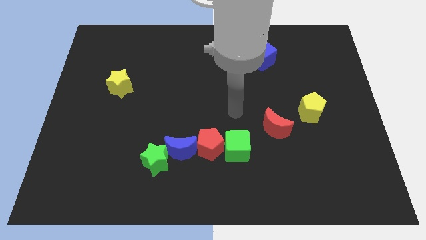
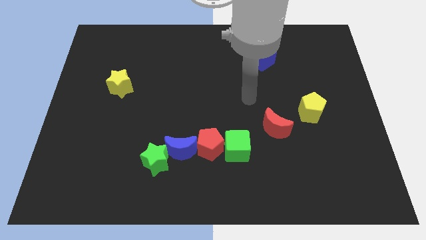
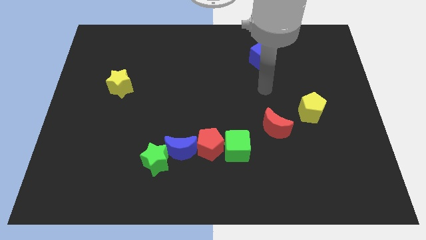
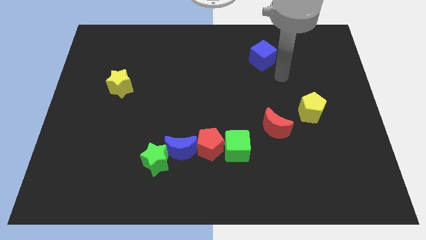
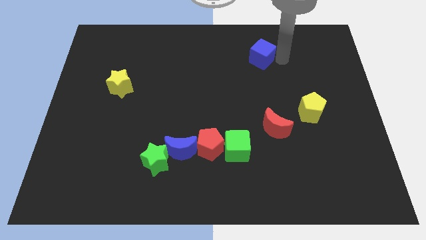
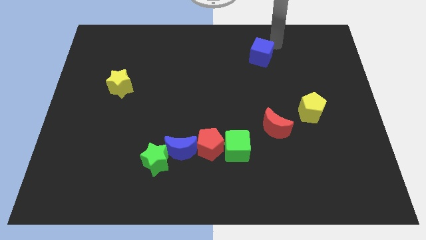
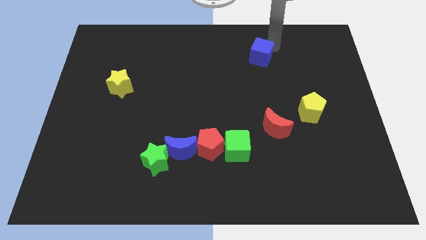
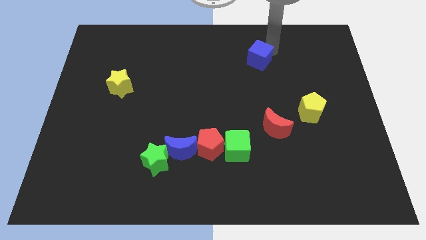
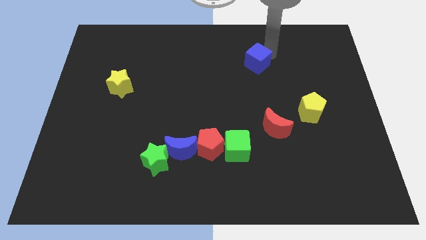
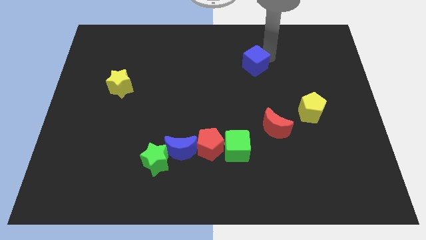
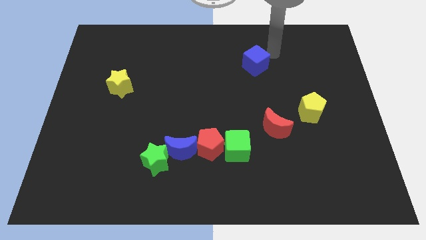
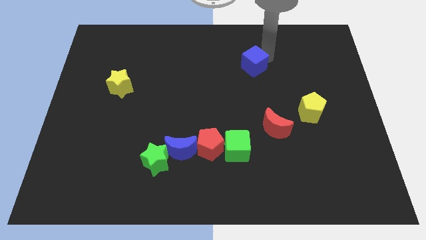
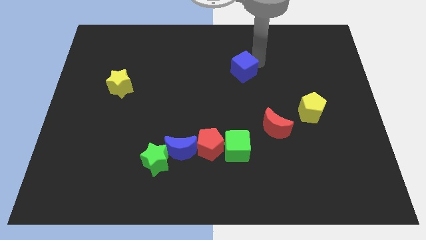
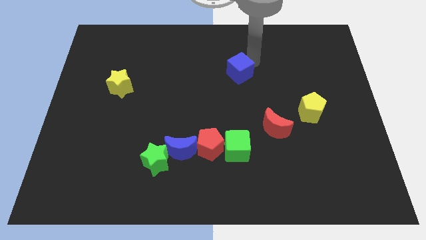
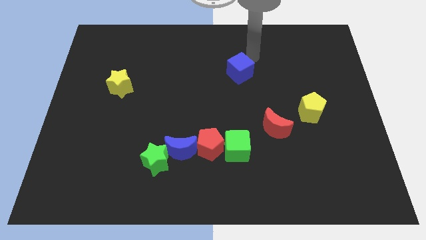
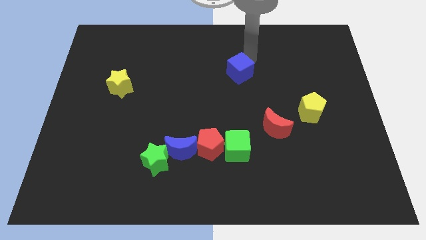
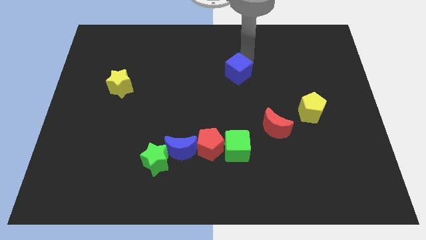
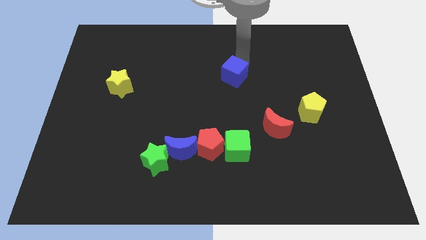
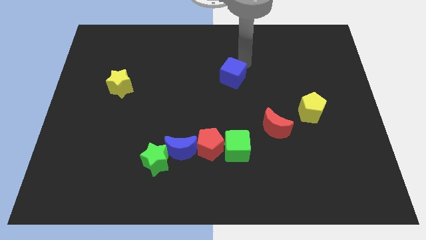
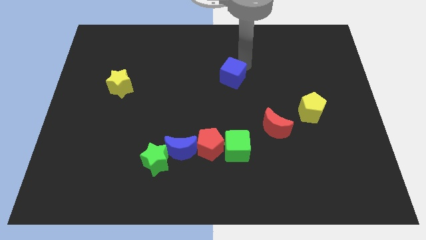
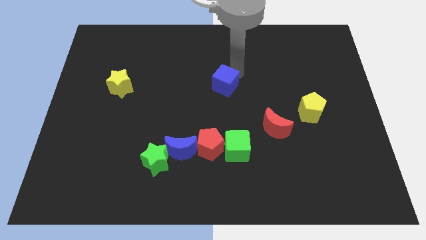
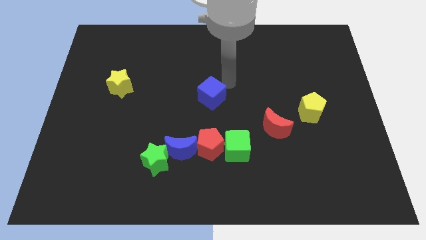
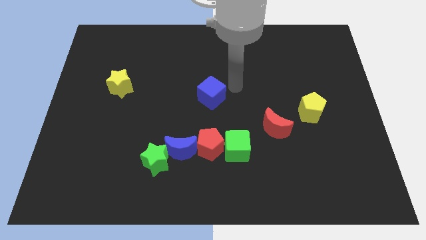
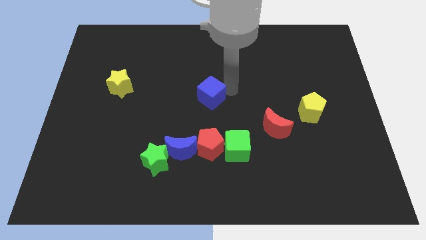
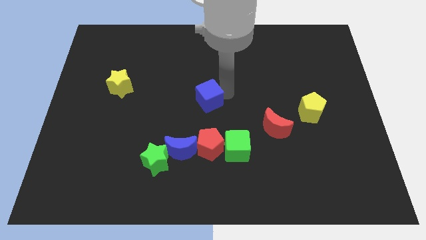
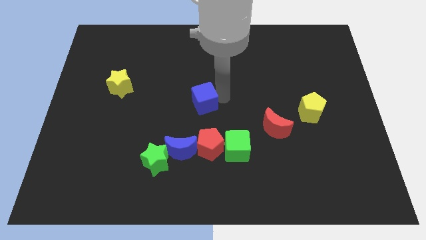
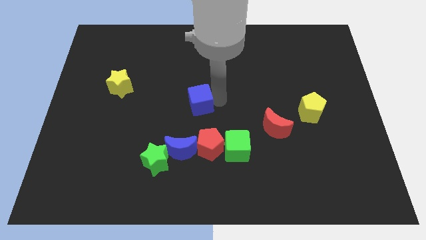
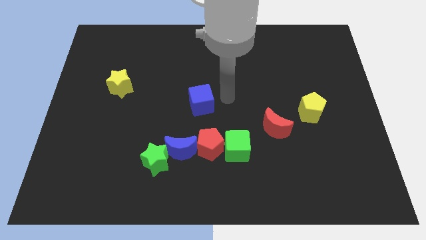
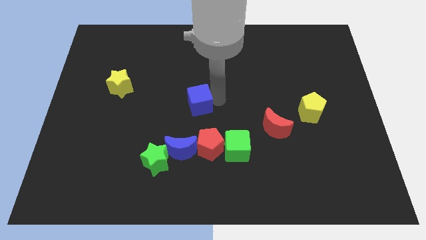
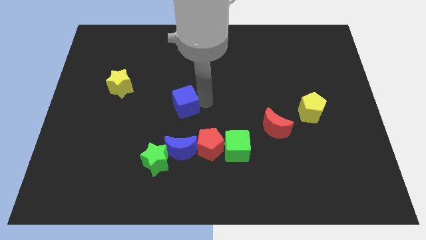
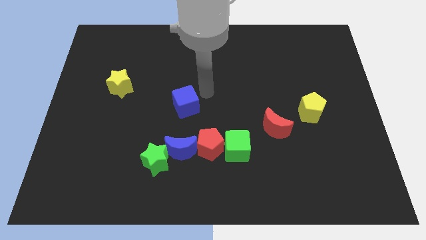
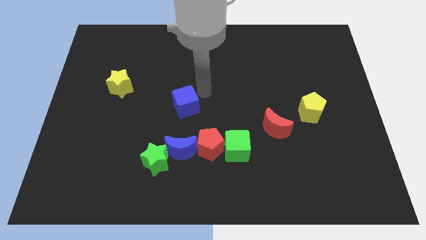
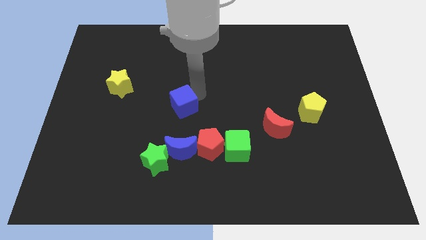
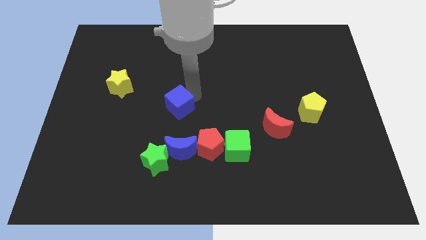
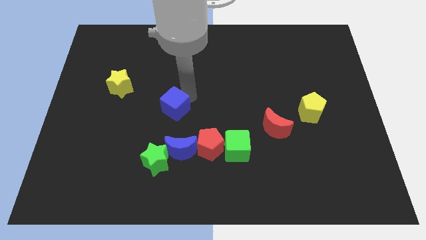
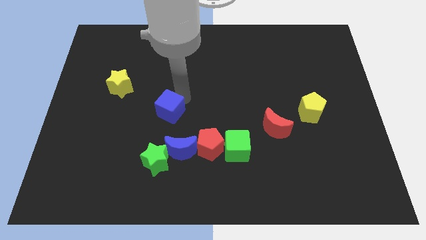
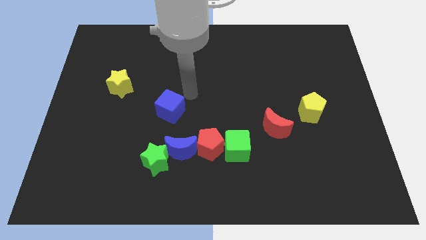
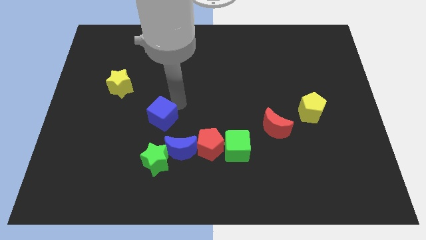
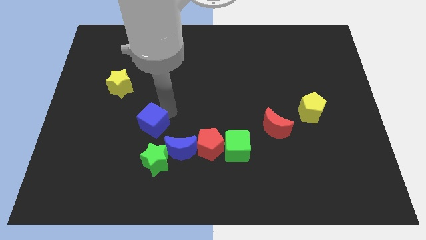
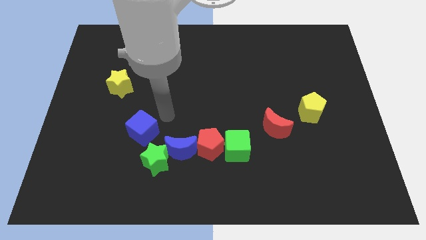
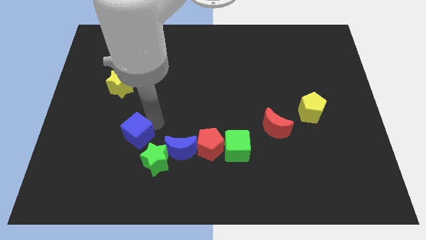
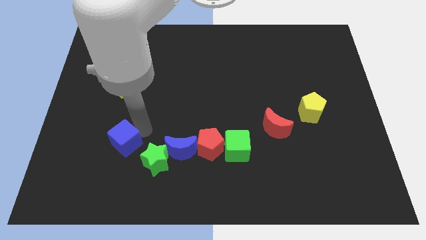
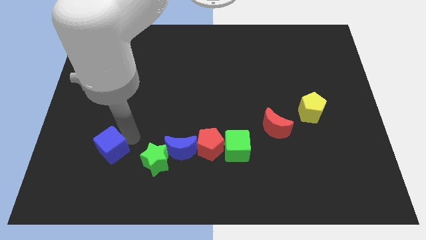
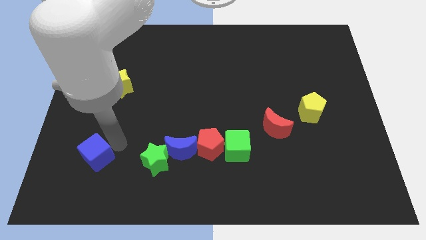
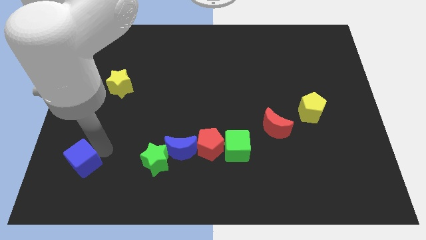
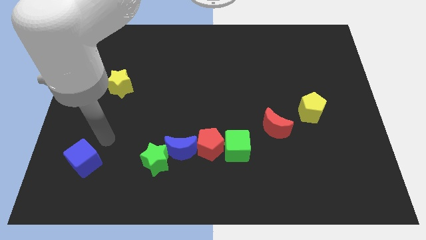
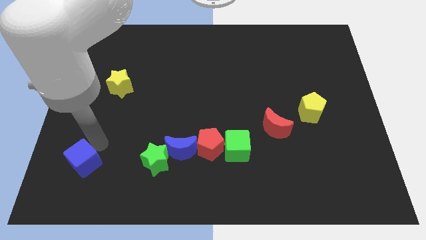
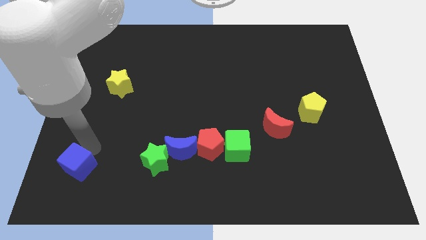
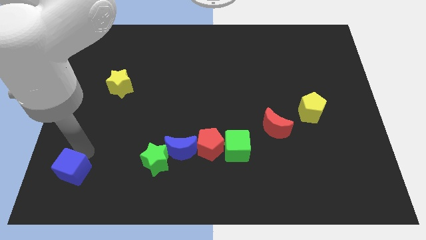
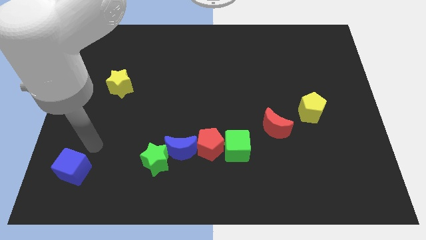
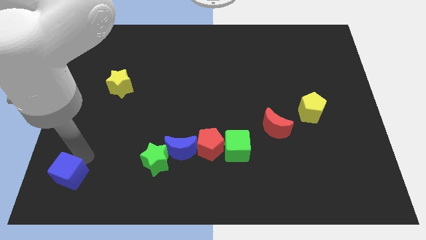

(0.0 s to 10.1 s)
push the blue cube to the bottom left
